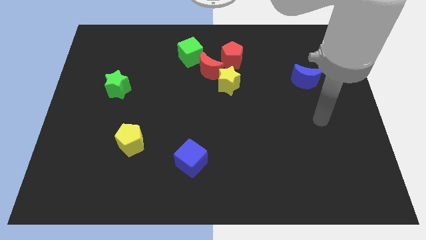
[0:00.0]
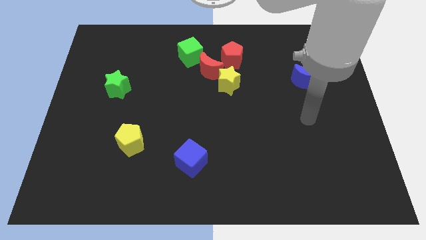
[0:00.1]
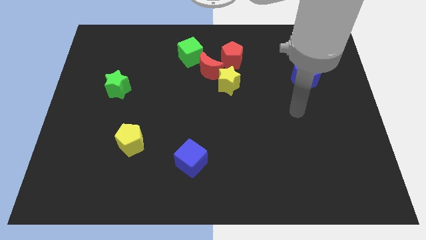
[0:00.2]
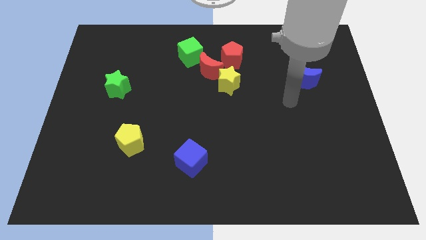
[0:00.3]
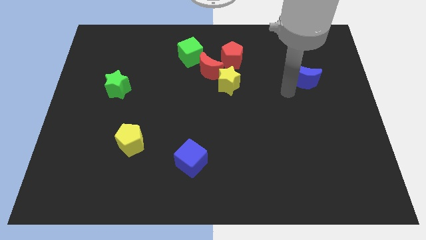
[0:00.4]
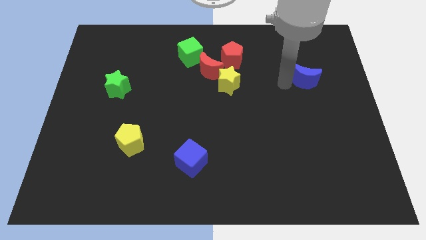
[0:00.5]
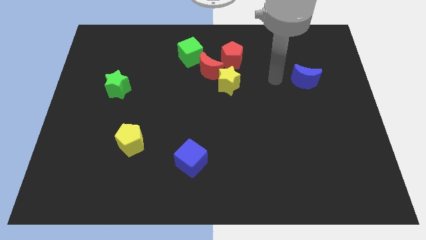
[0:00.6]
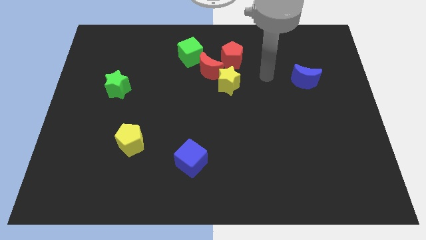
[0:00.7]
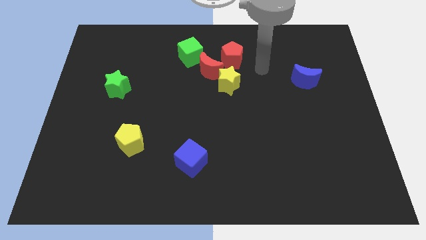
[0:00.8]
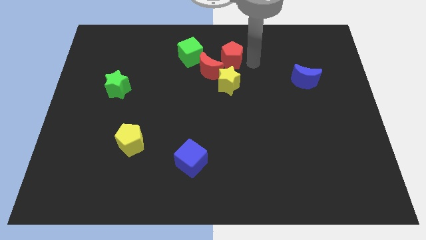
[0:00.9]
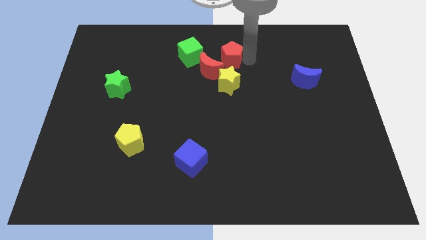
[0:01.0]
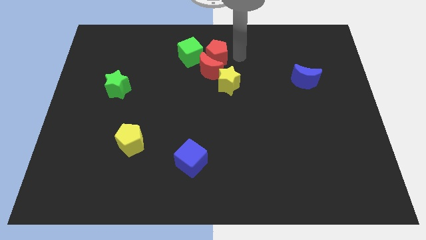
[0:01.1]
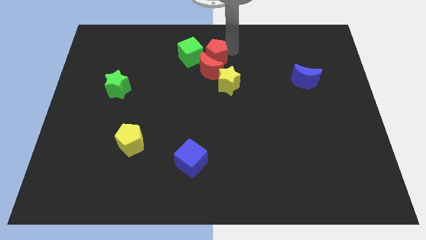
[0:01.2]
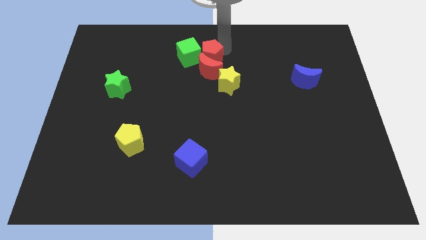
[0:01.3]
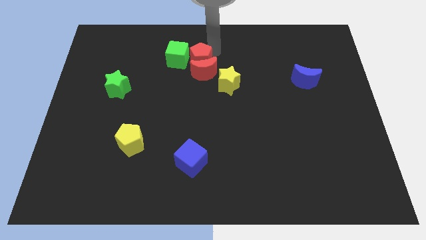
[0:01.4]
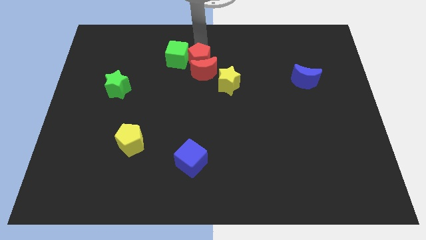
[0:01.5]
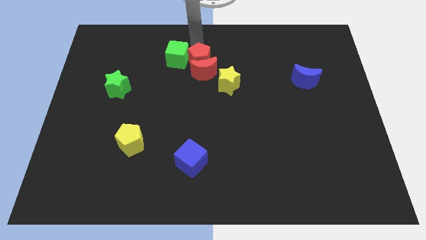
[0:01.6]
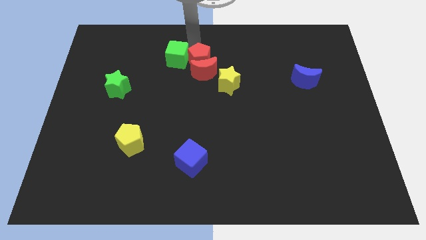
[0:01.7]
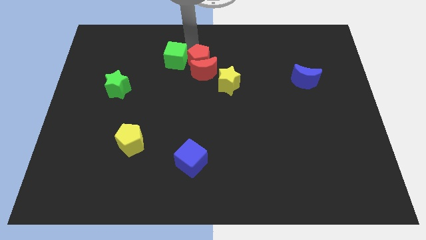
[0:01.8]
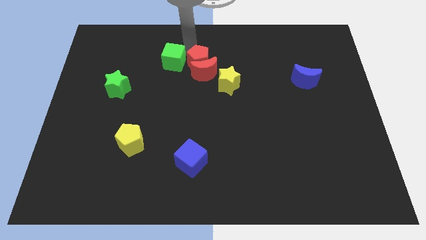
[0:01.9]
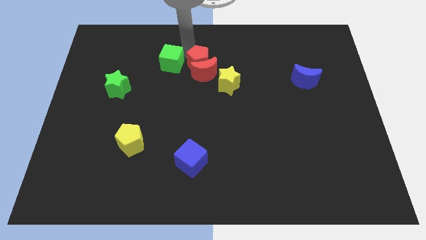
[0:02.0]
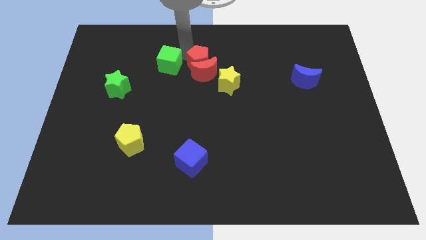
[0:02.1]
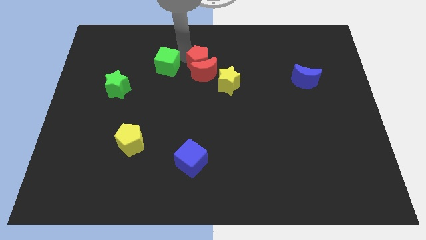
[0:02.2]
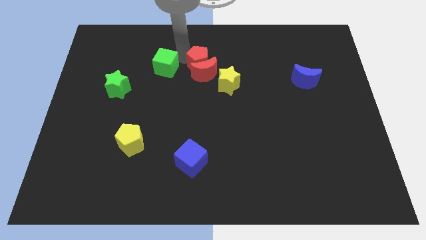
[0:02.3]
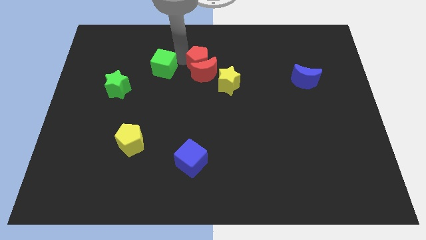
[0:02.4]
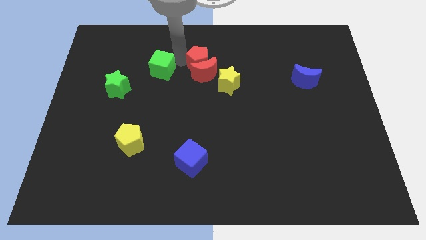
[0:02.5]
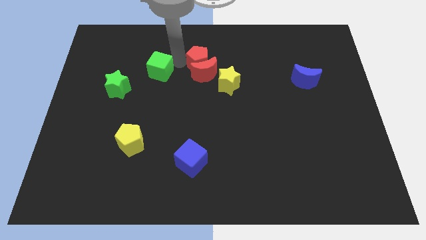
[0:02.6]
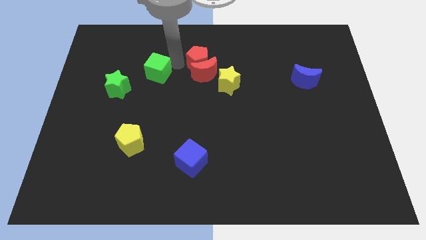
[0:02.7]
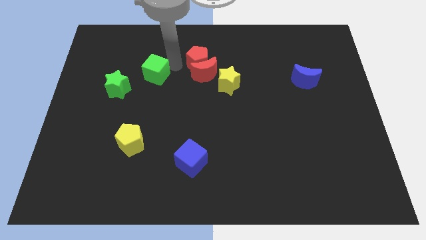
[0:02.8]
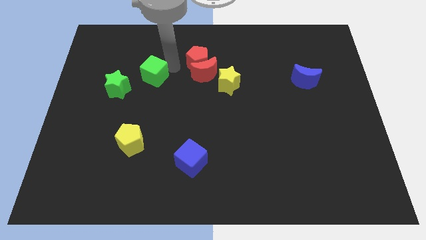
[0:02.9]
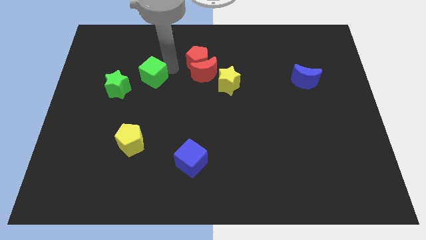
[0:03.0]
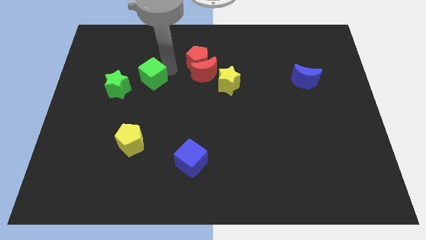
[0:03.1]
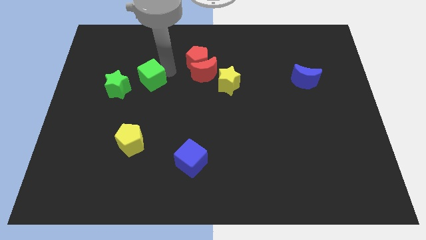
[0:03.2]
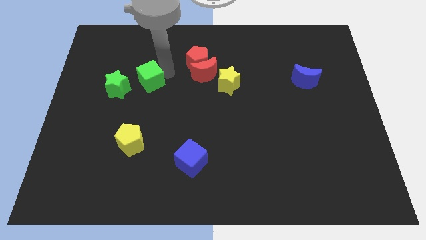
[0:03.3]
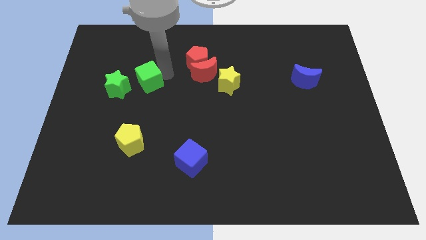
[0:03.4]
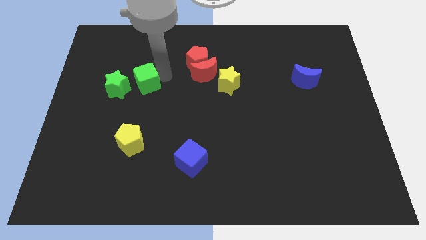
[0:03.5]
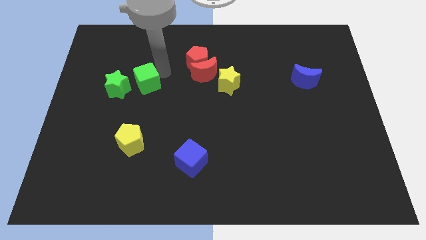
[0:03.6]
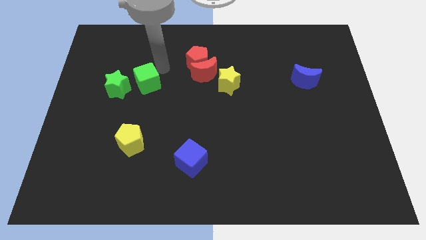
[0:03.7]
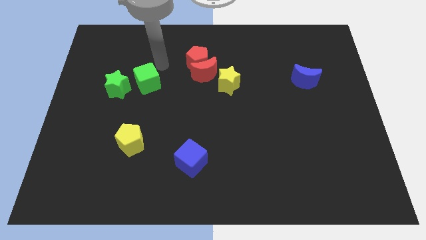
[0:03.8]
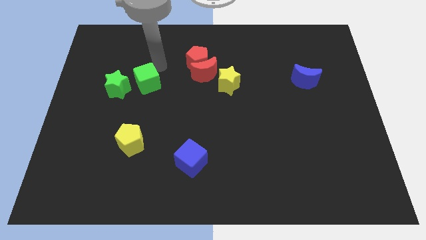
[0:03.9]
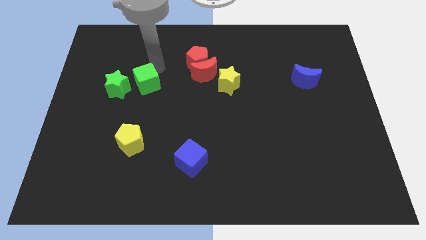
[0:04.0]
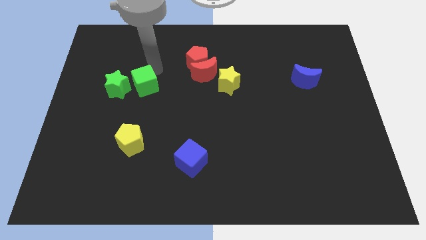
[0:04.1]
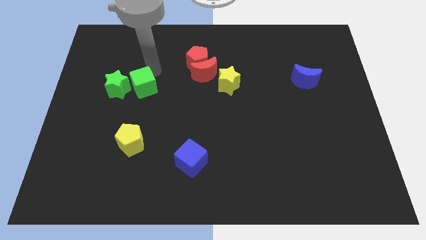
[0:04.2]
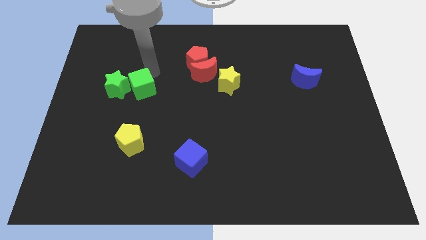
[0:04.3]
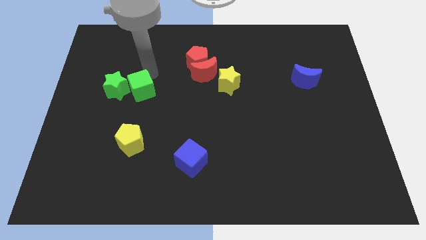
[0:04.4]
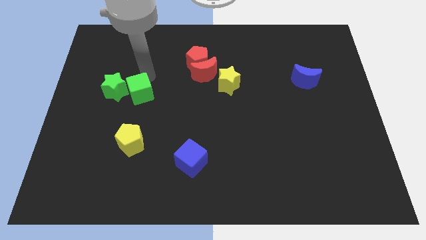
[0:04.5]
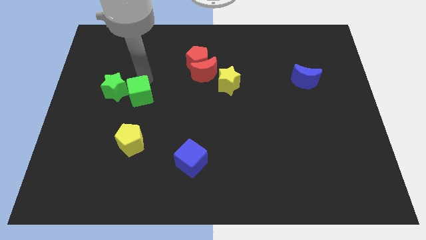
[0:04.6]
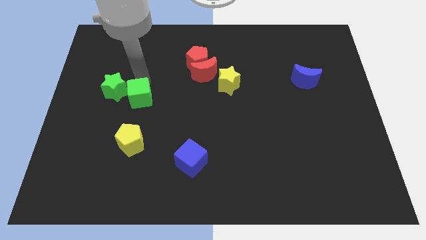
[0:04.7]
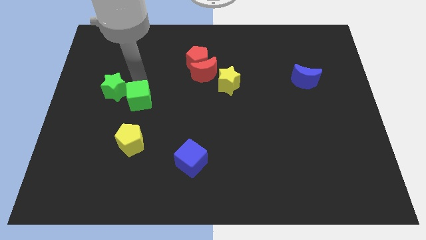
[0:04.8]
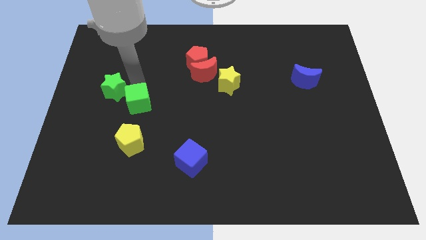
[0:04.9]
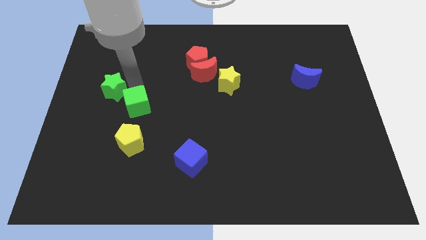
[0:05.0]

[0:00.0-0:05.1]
push the green cube diagonally downwards and to the left

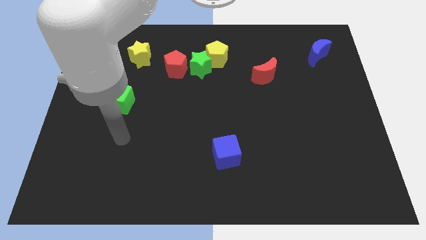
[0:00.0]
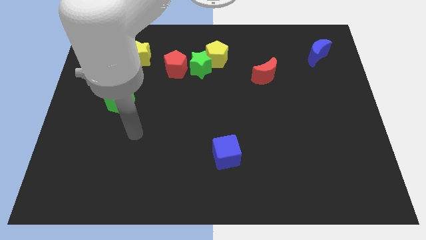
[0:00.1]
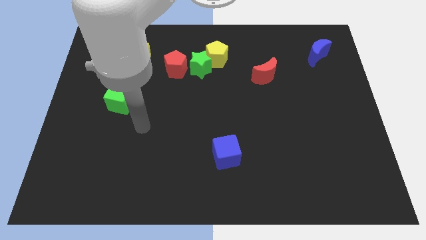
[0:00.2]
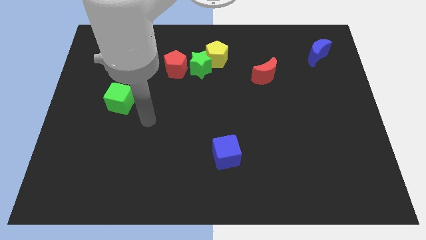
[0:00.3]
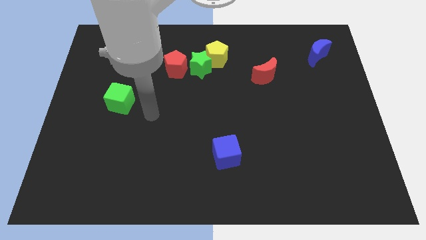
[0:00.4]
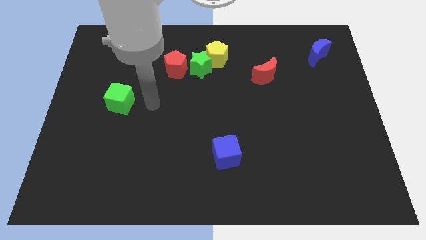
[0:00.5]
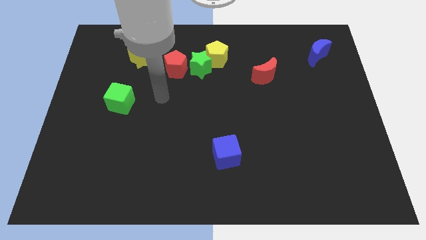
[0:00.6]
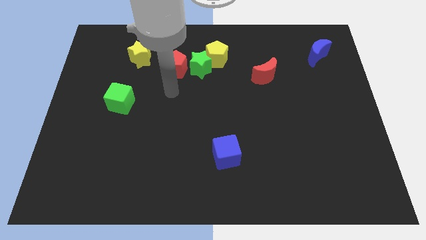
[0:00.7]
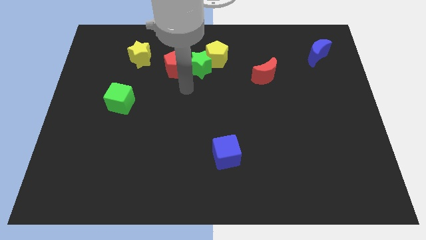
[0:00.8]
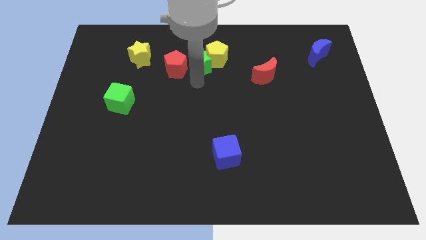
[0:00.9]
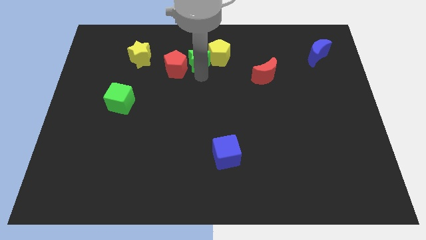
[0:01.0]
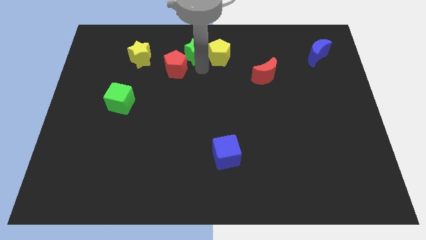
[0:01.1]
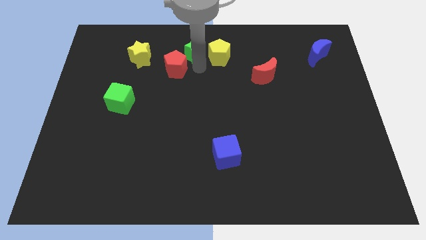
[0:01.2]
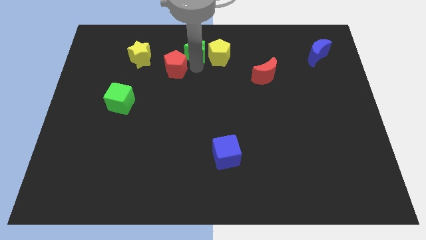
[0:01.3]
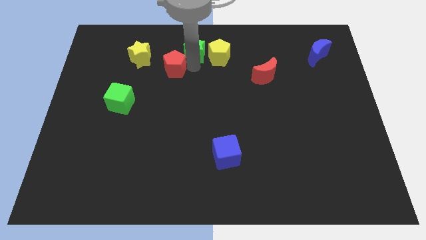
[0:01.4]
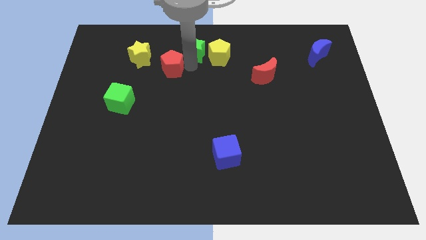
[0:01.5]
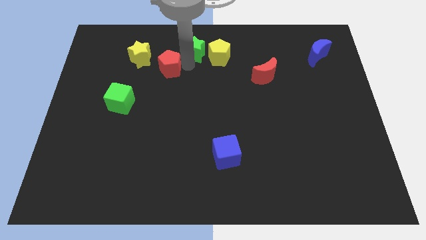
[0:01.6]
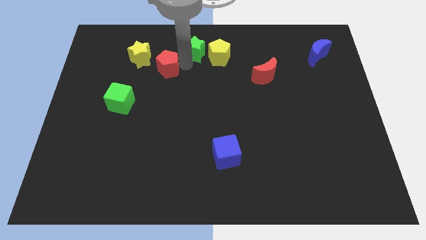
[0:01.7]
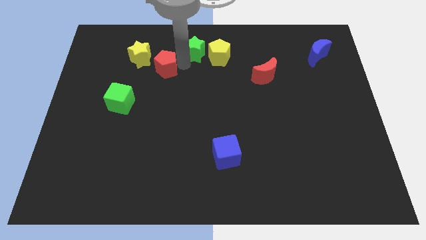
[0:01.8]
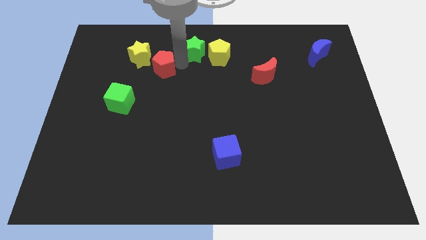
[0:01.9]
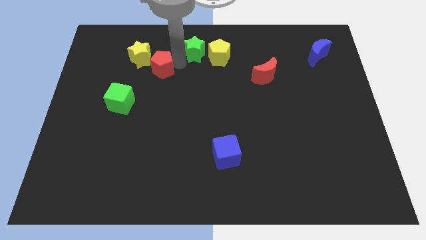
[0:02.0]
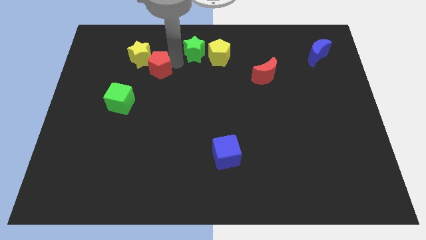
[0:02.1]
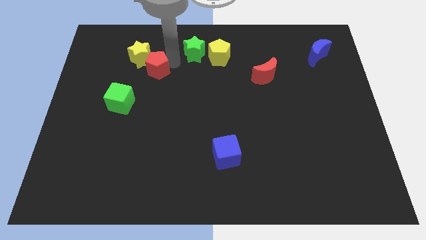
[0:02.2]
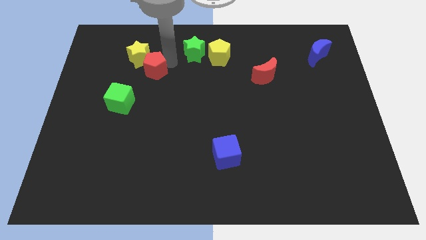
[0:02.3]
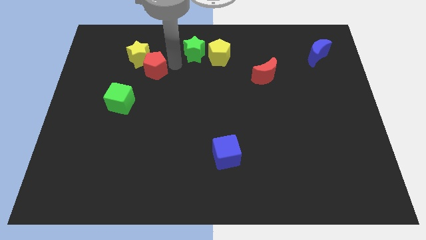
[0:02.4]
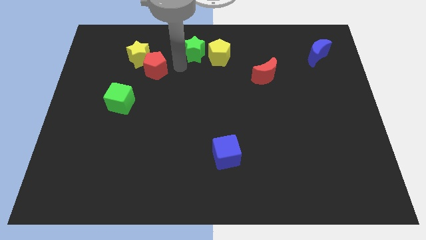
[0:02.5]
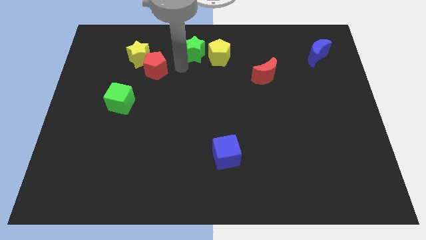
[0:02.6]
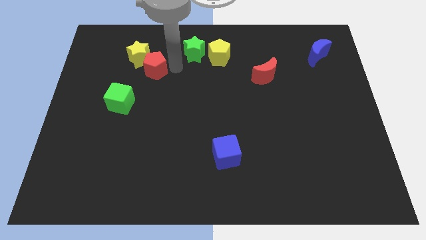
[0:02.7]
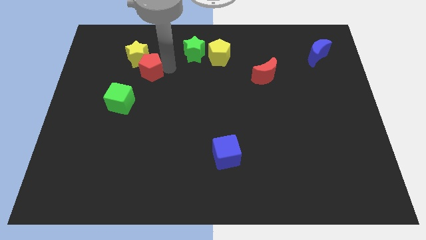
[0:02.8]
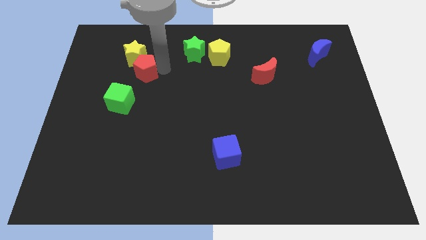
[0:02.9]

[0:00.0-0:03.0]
push the red pentagon a bit left

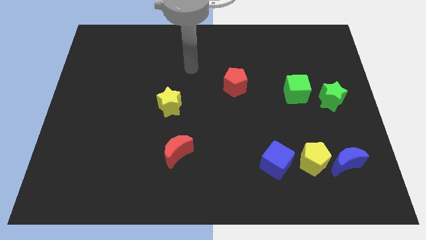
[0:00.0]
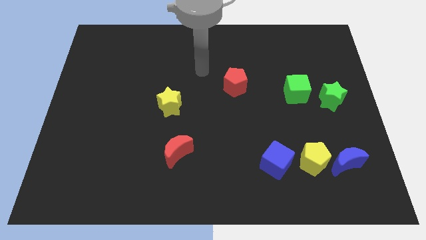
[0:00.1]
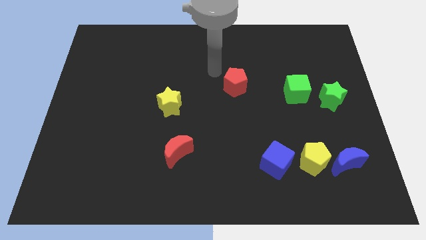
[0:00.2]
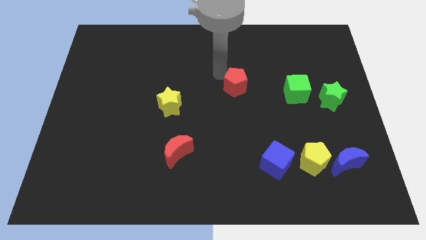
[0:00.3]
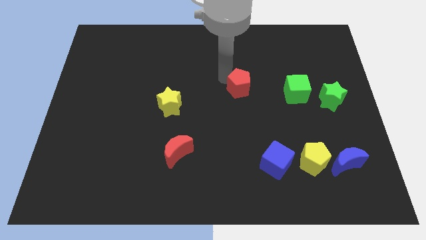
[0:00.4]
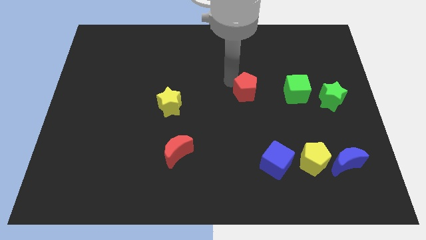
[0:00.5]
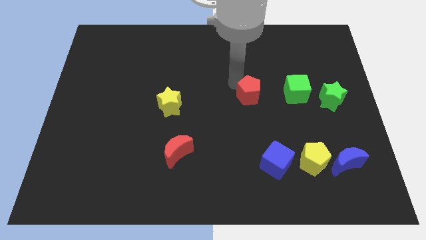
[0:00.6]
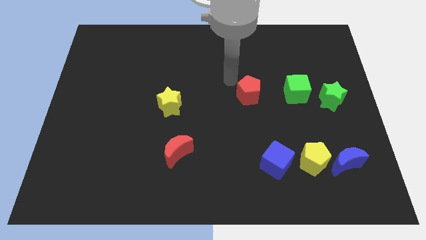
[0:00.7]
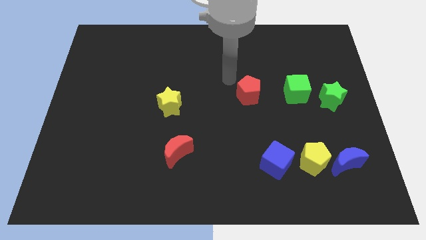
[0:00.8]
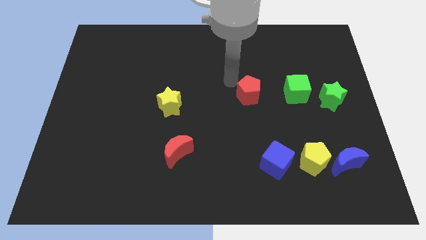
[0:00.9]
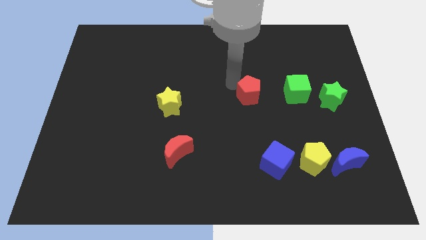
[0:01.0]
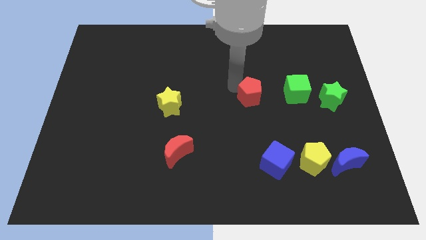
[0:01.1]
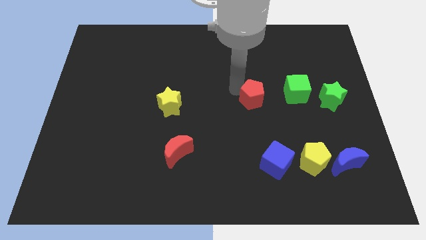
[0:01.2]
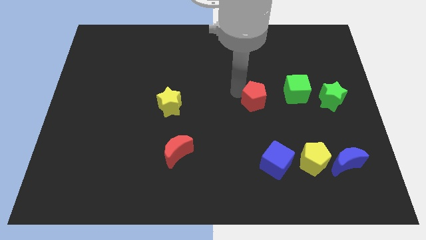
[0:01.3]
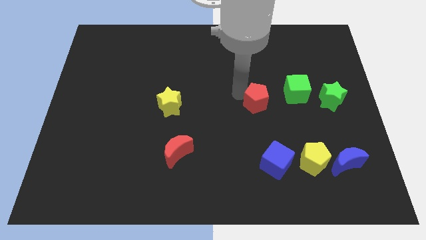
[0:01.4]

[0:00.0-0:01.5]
push the red pentagon diagonally down and right a little bit
